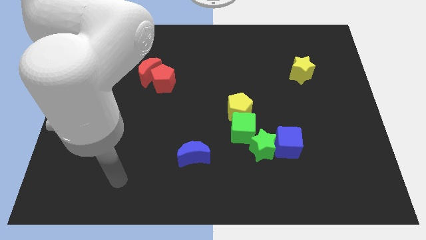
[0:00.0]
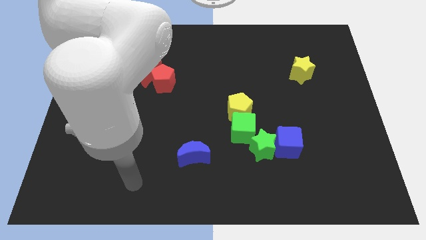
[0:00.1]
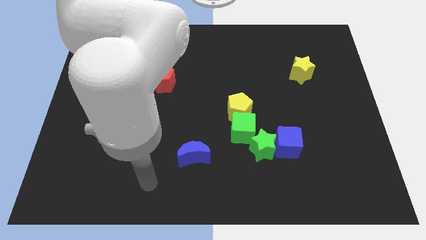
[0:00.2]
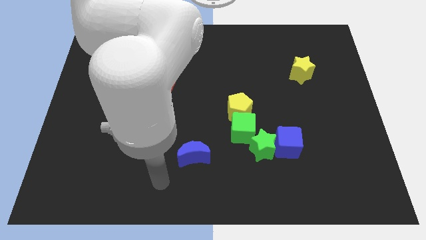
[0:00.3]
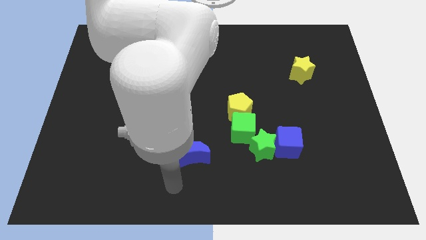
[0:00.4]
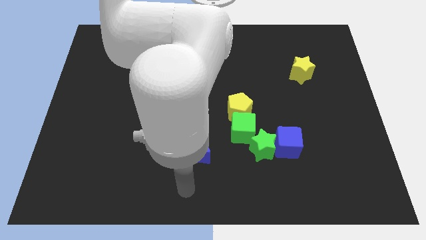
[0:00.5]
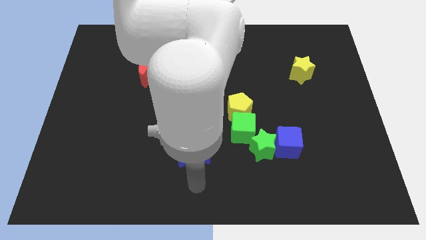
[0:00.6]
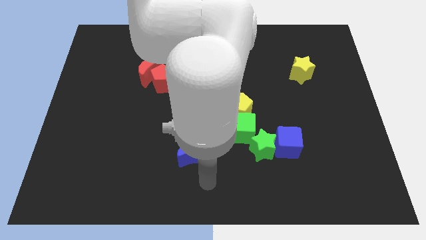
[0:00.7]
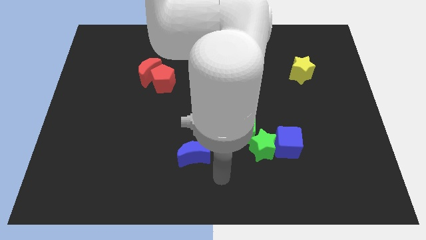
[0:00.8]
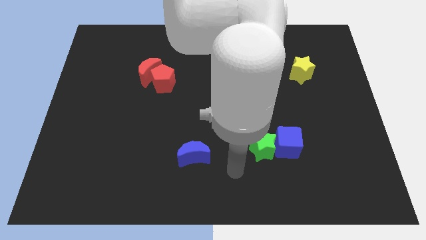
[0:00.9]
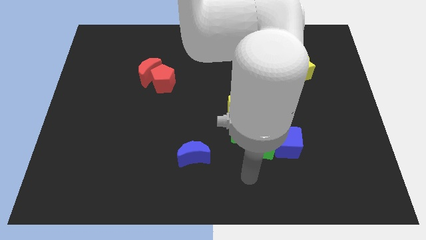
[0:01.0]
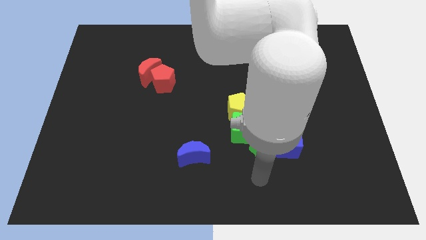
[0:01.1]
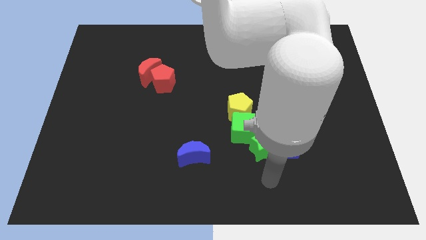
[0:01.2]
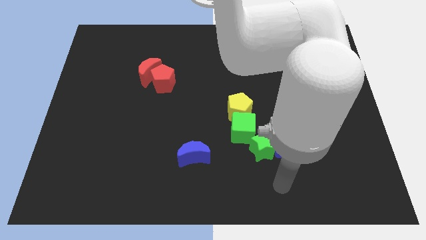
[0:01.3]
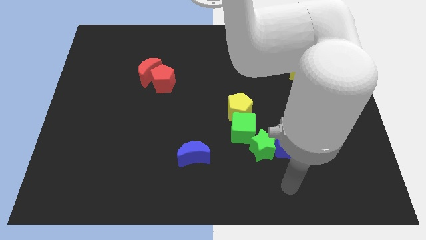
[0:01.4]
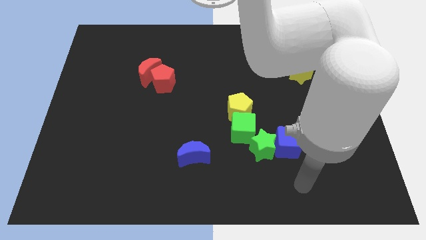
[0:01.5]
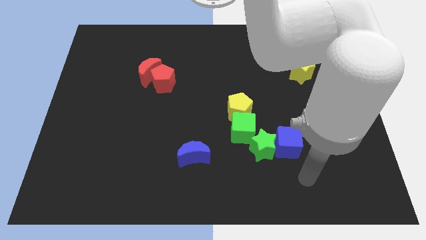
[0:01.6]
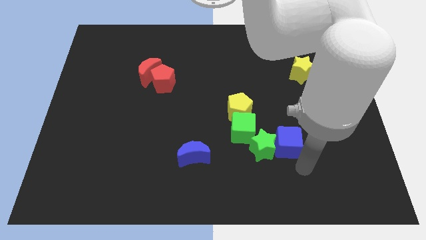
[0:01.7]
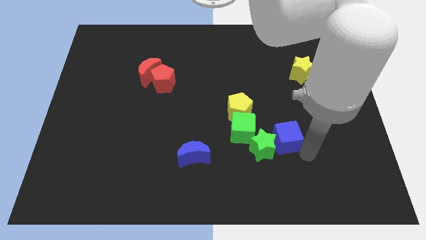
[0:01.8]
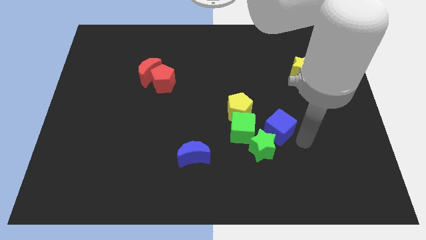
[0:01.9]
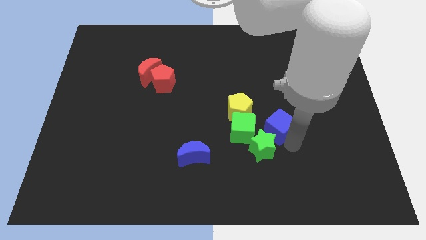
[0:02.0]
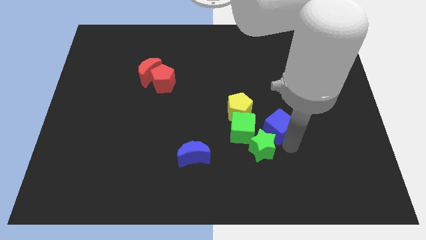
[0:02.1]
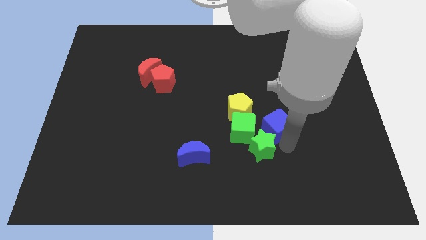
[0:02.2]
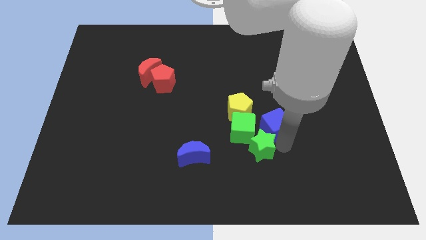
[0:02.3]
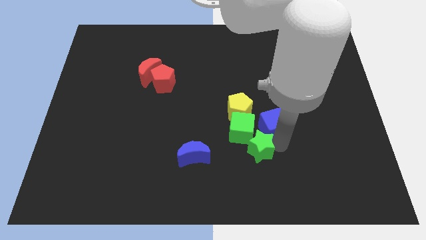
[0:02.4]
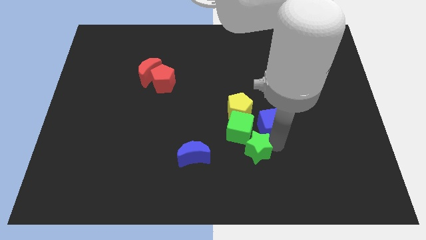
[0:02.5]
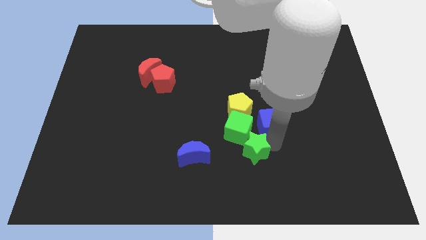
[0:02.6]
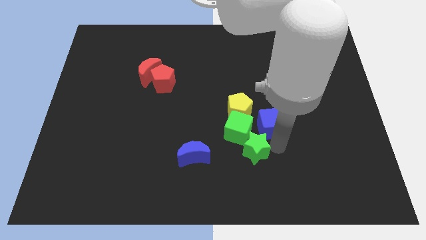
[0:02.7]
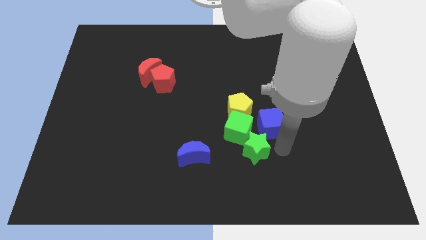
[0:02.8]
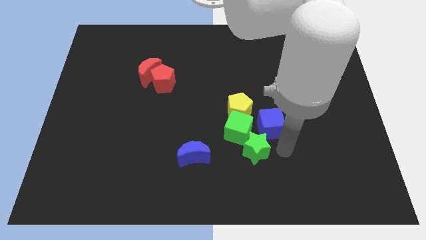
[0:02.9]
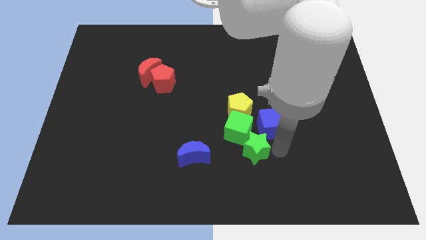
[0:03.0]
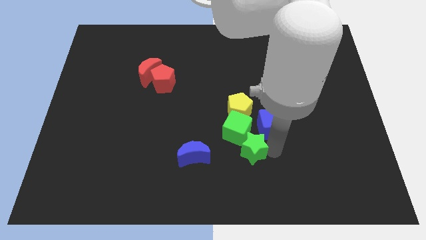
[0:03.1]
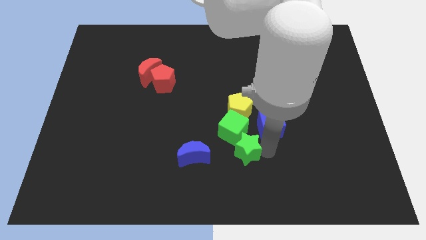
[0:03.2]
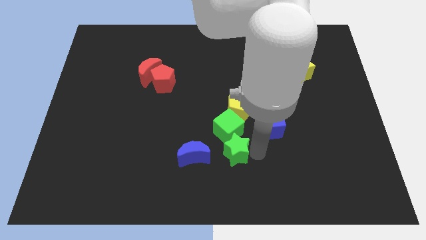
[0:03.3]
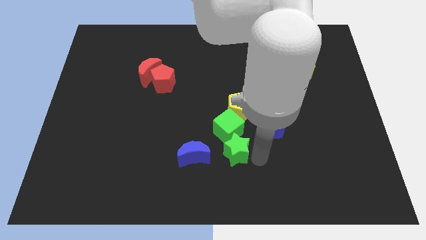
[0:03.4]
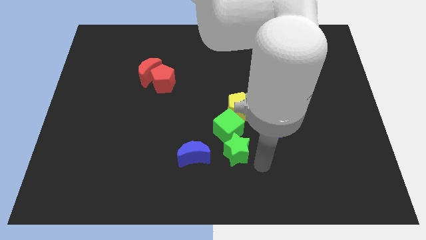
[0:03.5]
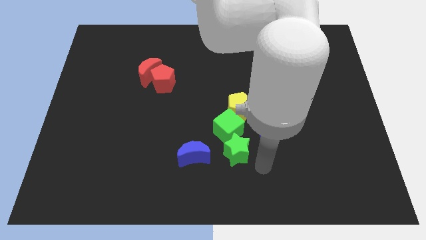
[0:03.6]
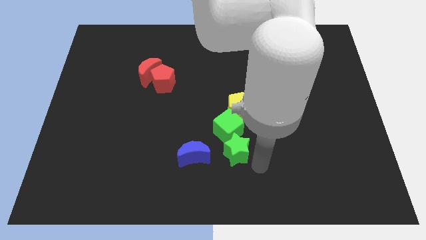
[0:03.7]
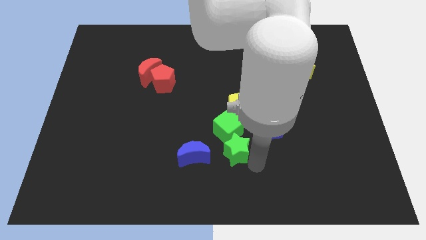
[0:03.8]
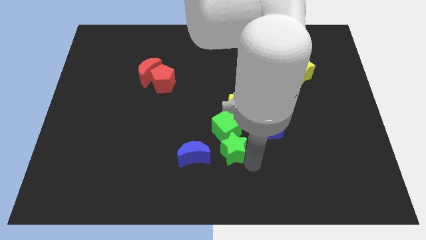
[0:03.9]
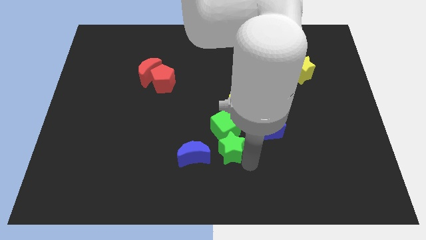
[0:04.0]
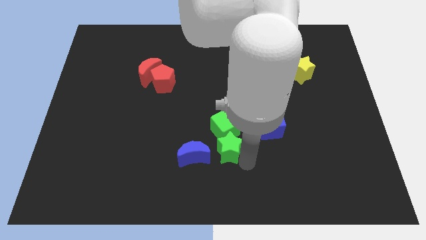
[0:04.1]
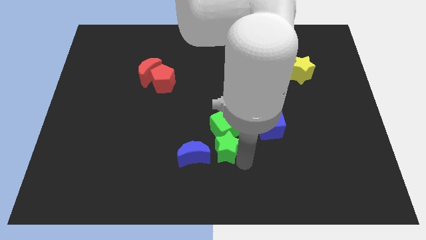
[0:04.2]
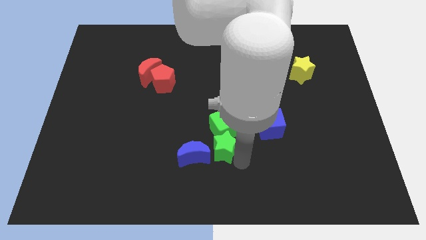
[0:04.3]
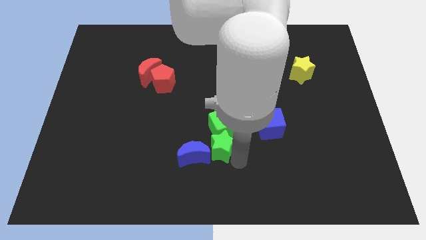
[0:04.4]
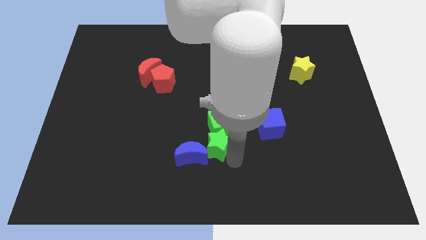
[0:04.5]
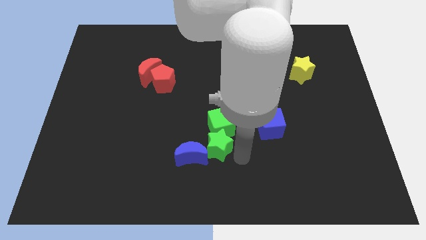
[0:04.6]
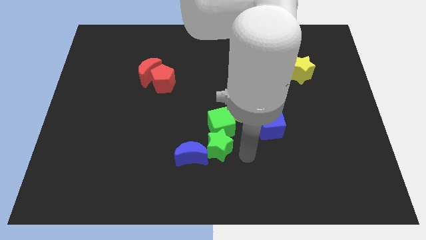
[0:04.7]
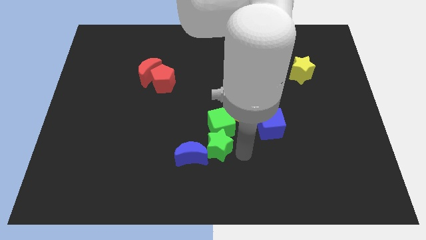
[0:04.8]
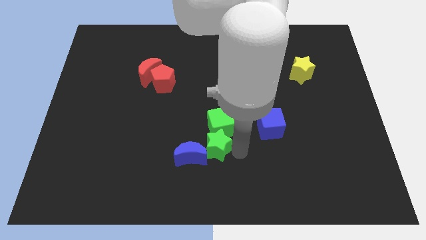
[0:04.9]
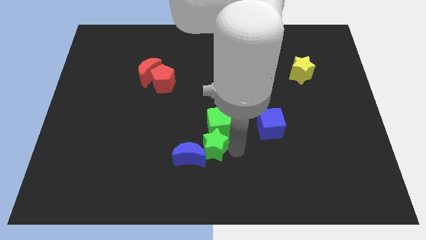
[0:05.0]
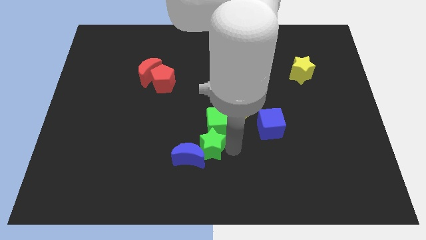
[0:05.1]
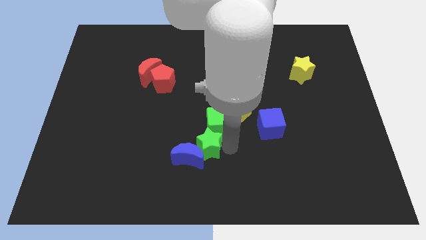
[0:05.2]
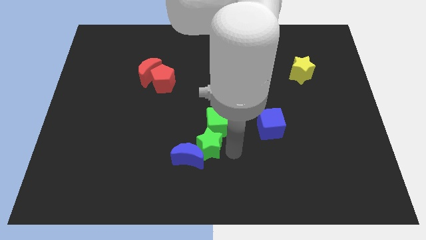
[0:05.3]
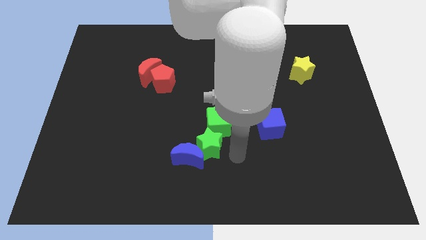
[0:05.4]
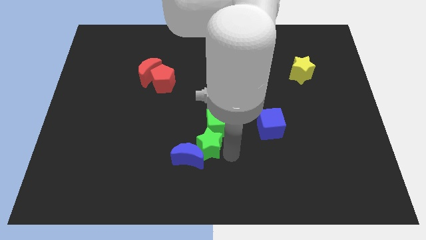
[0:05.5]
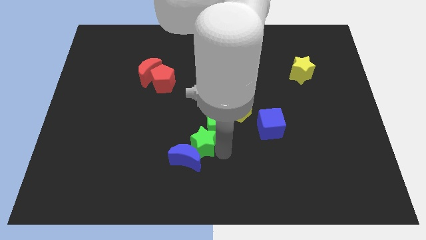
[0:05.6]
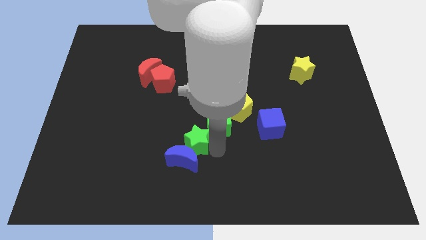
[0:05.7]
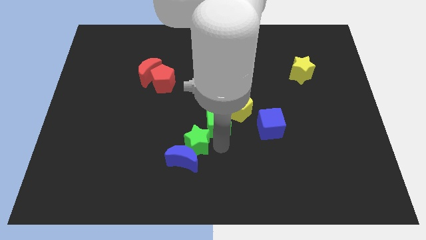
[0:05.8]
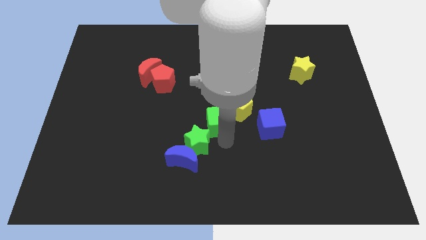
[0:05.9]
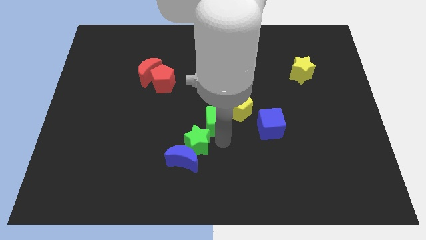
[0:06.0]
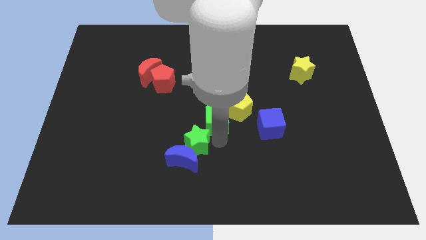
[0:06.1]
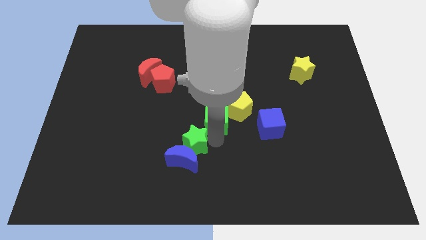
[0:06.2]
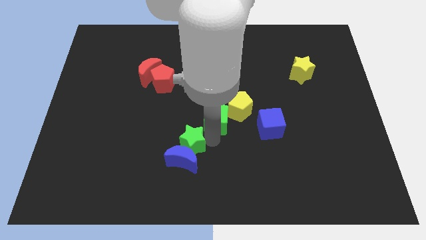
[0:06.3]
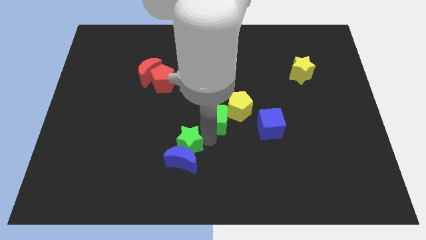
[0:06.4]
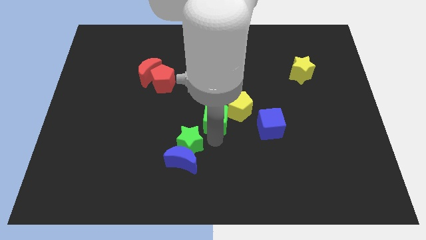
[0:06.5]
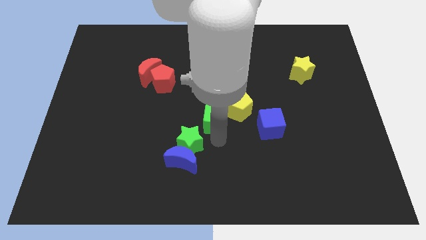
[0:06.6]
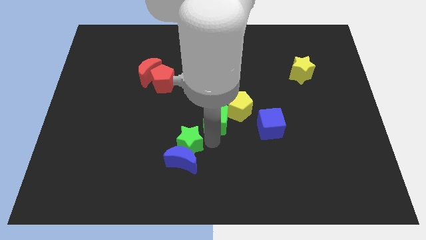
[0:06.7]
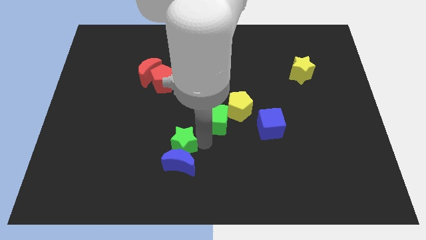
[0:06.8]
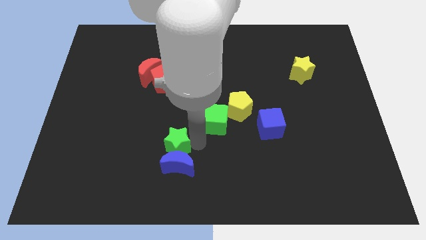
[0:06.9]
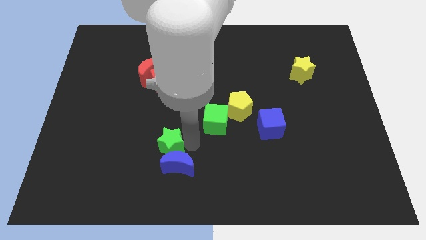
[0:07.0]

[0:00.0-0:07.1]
move the green star left

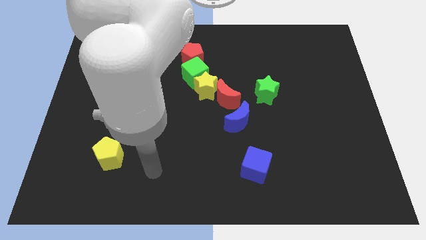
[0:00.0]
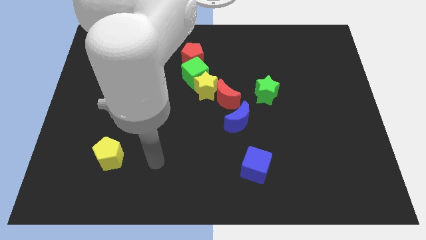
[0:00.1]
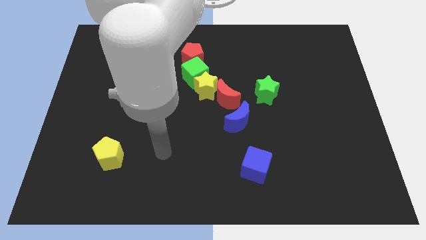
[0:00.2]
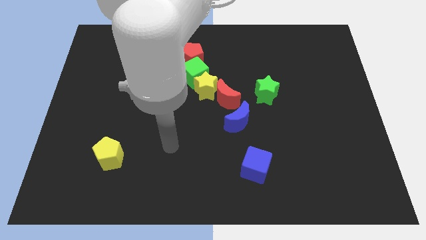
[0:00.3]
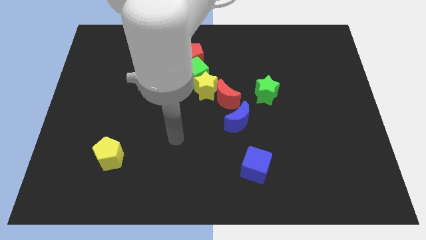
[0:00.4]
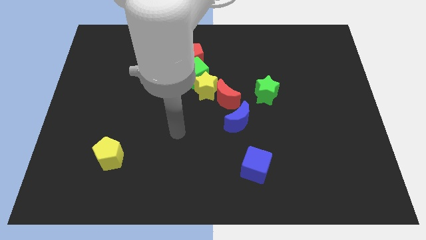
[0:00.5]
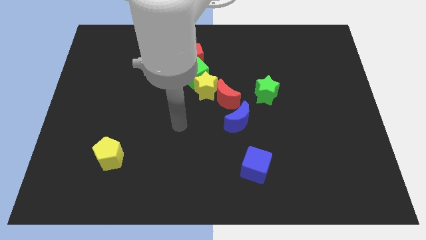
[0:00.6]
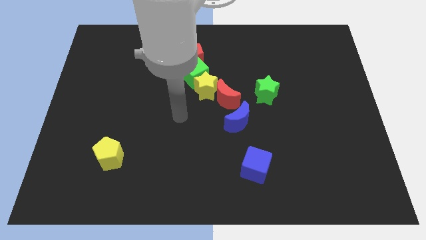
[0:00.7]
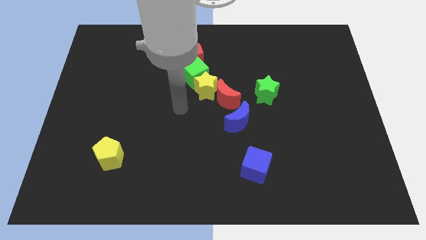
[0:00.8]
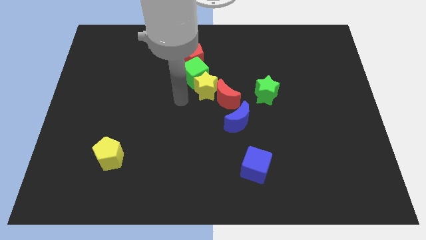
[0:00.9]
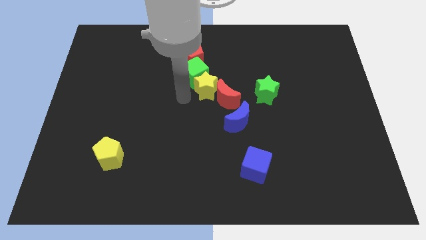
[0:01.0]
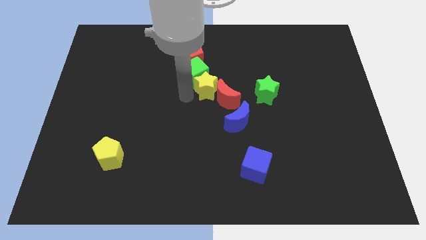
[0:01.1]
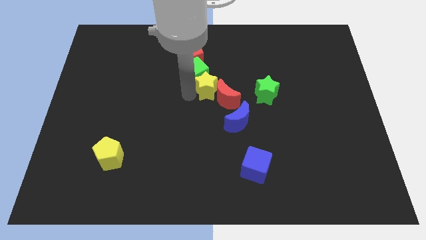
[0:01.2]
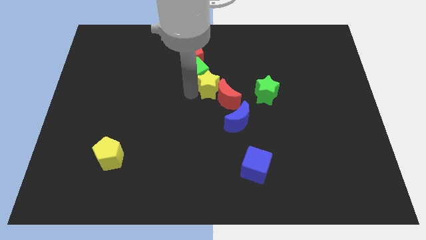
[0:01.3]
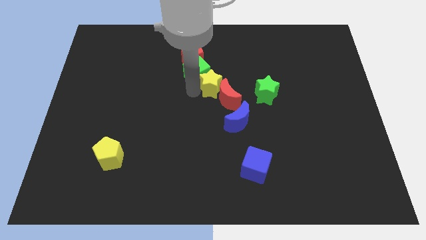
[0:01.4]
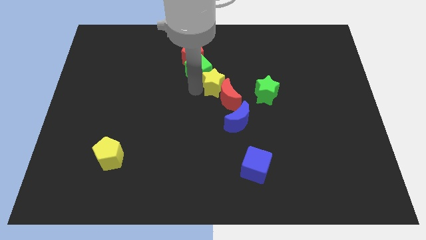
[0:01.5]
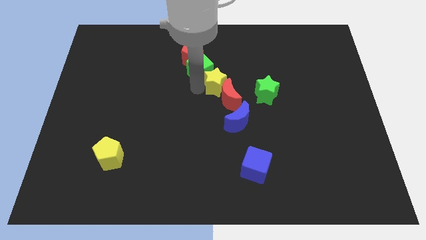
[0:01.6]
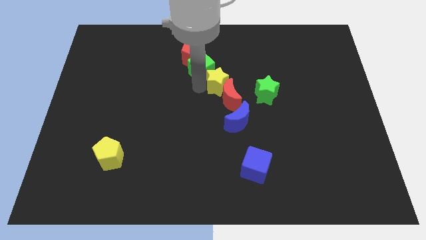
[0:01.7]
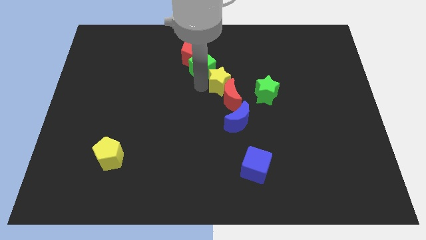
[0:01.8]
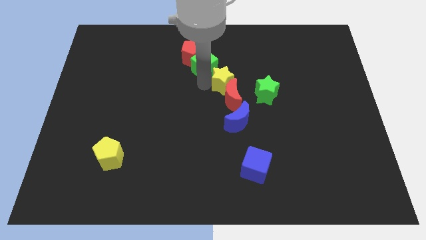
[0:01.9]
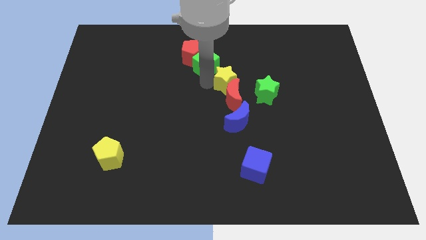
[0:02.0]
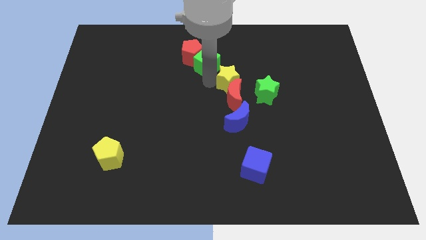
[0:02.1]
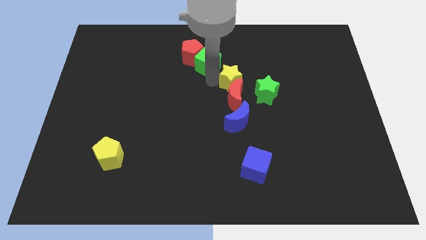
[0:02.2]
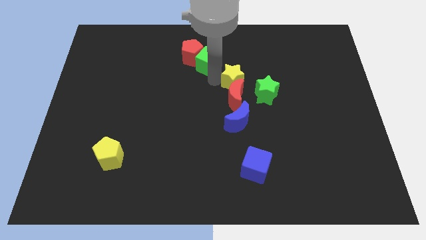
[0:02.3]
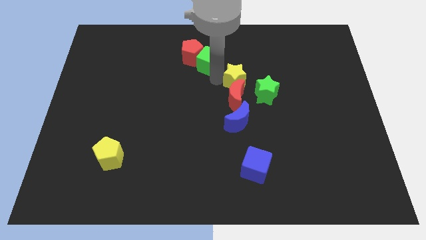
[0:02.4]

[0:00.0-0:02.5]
slide the yellow star to the right a bit
